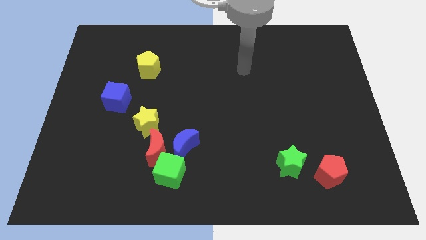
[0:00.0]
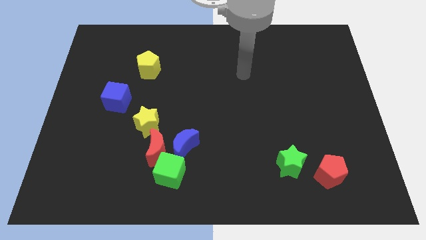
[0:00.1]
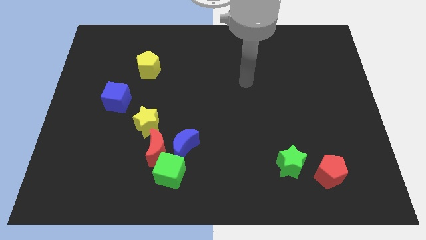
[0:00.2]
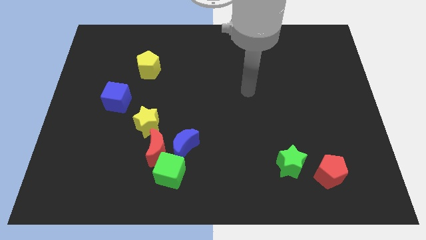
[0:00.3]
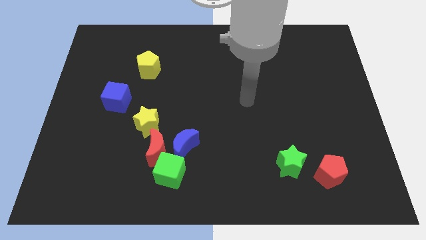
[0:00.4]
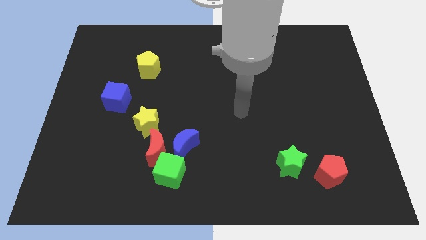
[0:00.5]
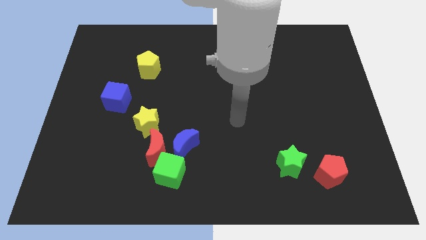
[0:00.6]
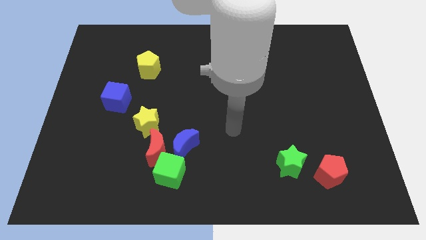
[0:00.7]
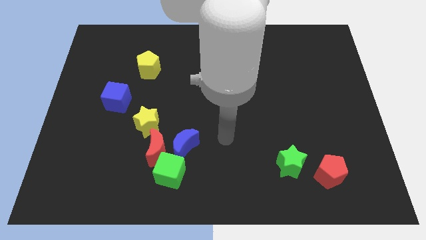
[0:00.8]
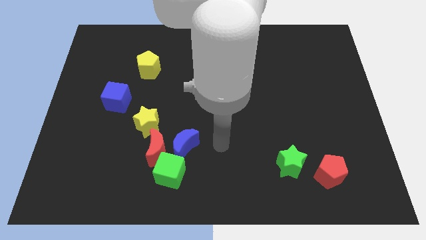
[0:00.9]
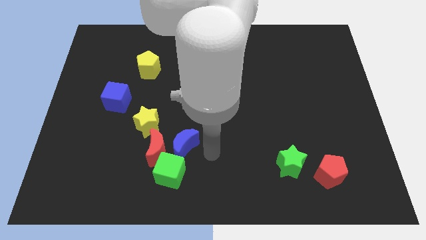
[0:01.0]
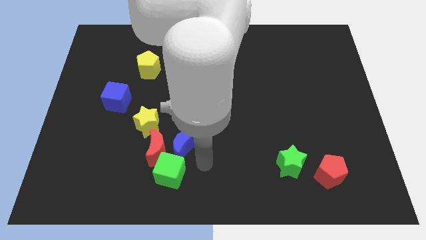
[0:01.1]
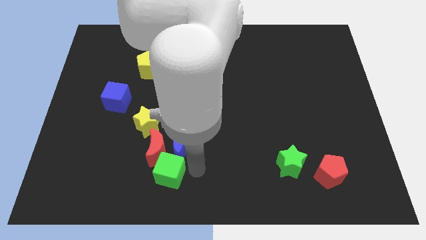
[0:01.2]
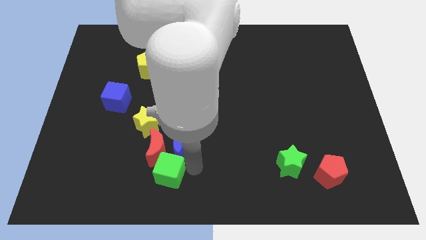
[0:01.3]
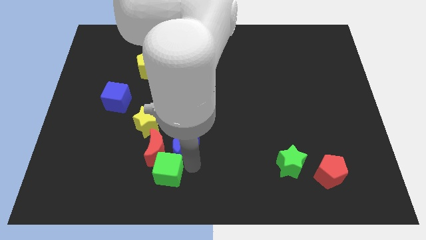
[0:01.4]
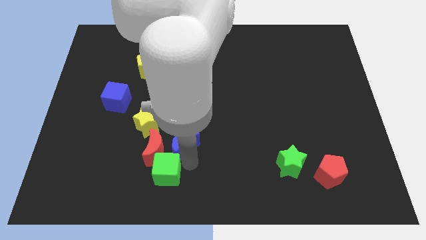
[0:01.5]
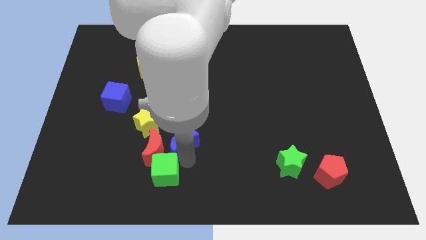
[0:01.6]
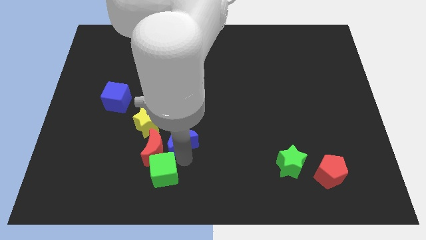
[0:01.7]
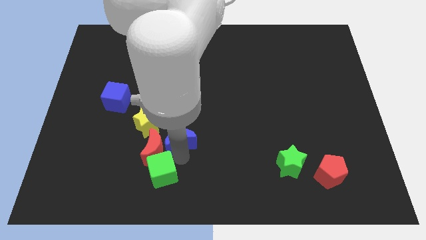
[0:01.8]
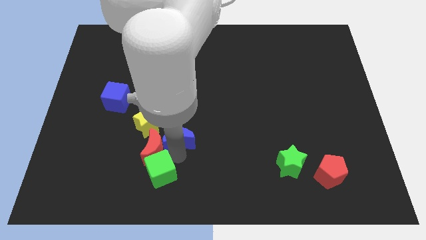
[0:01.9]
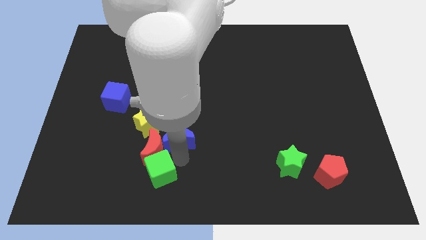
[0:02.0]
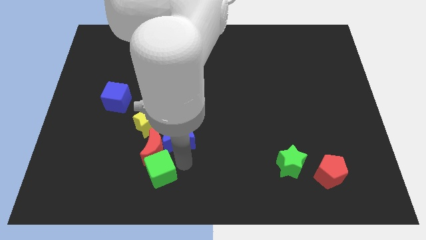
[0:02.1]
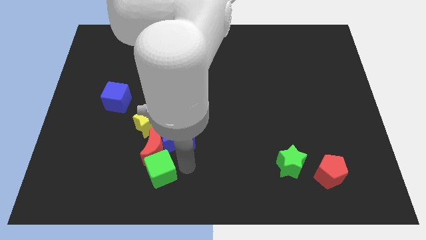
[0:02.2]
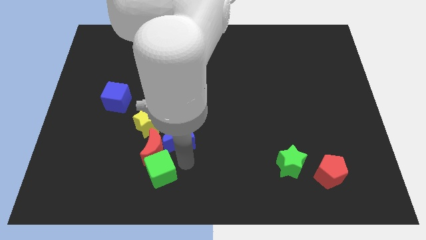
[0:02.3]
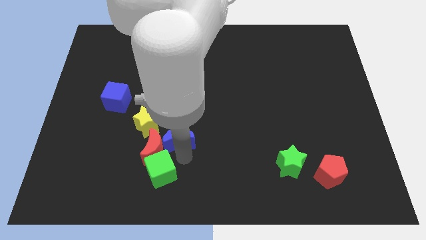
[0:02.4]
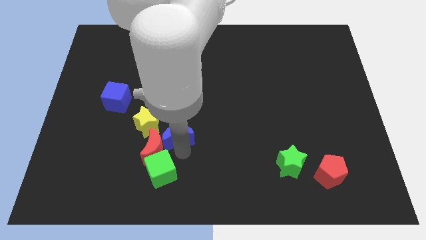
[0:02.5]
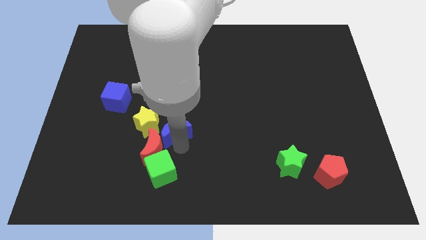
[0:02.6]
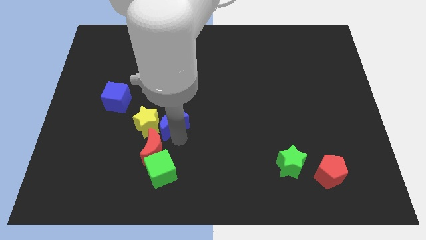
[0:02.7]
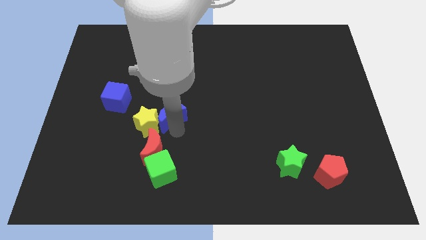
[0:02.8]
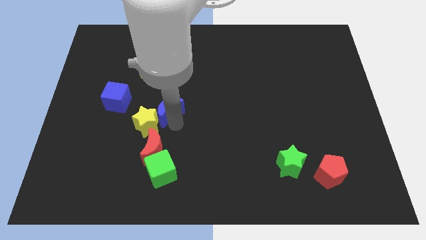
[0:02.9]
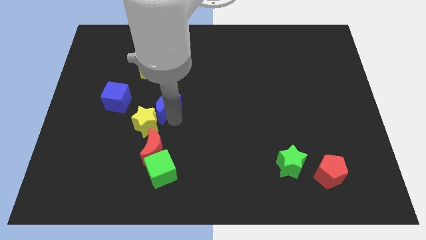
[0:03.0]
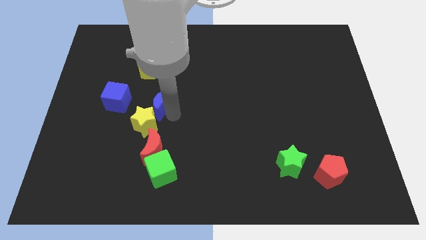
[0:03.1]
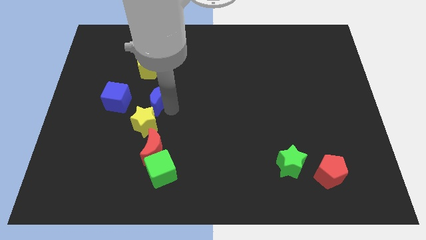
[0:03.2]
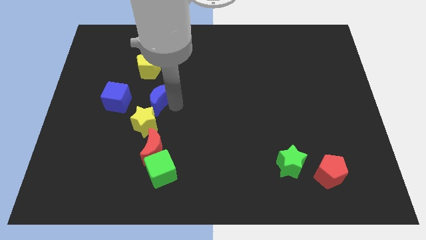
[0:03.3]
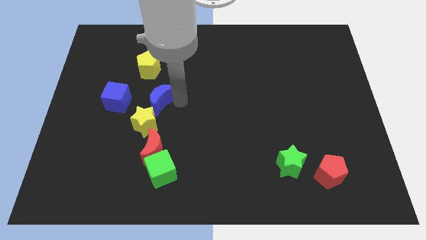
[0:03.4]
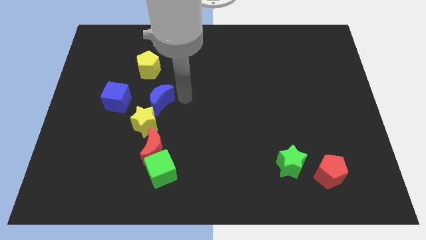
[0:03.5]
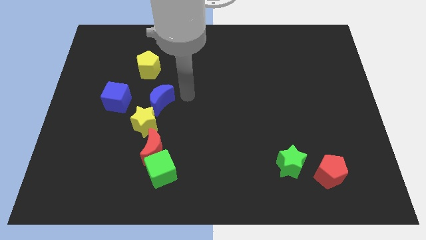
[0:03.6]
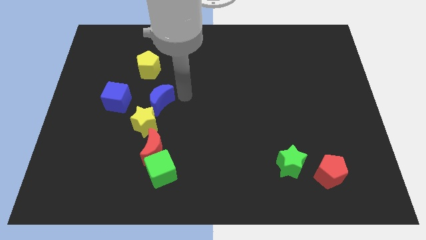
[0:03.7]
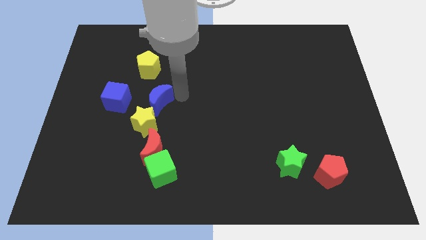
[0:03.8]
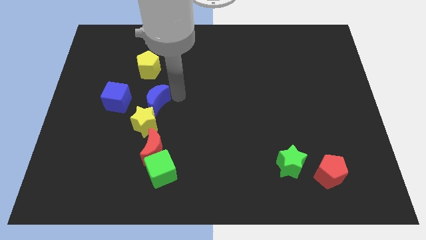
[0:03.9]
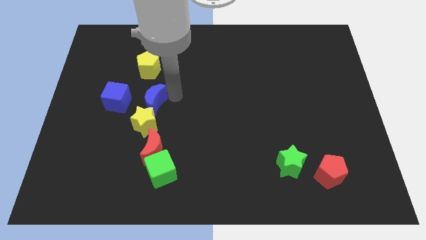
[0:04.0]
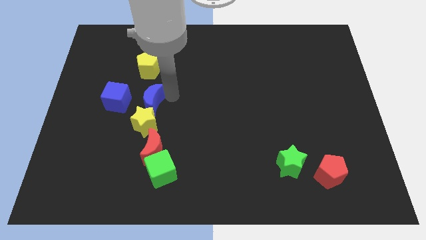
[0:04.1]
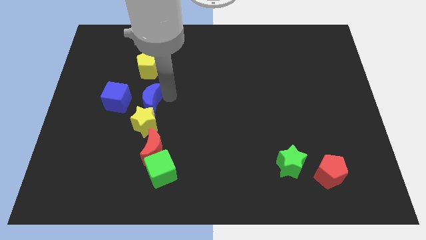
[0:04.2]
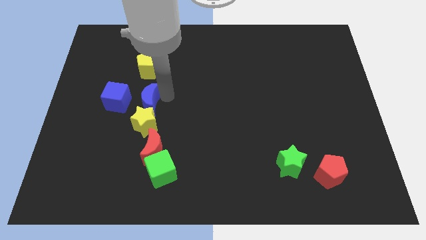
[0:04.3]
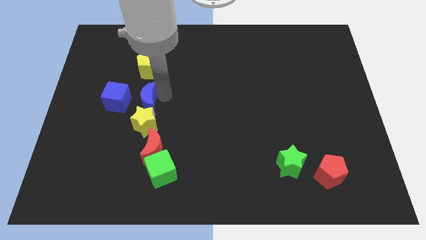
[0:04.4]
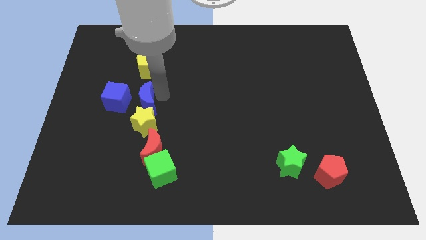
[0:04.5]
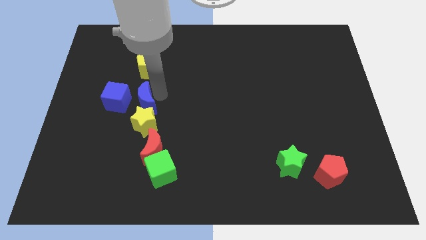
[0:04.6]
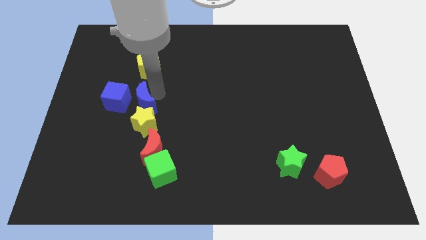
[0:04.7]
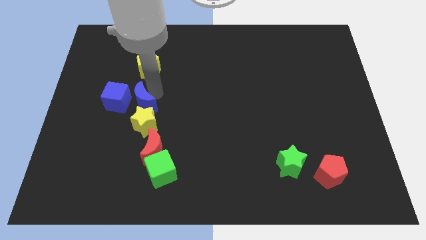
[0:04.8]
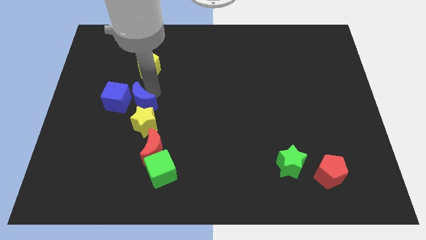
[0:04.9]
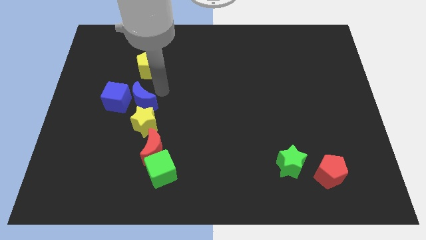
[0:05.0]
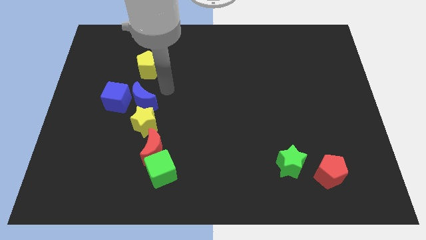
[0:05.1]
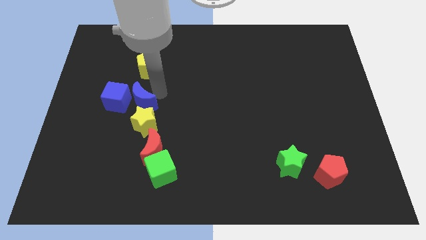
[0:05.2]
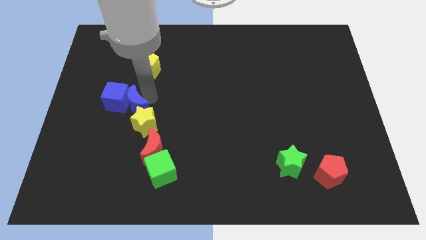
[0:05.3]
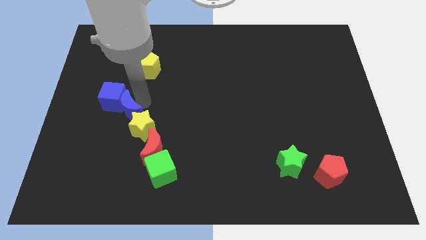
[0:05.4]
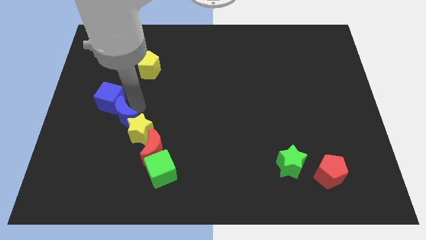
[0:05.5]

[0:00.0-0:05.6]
put the blue moon to the left side of the yellow star

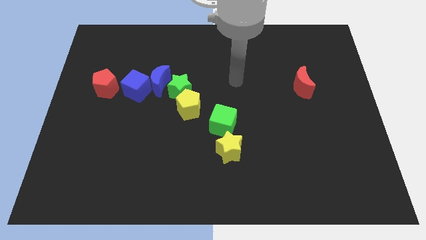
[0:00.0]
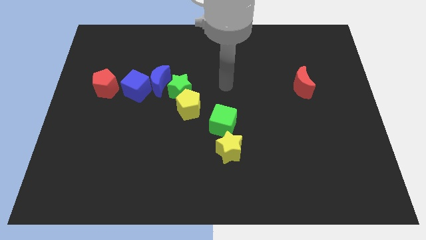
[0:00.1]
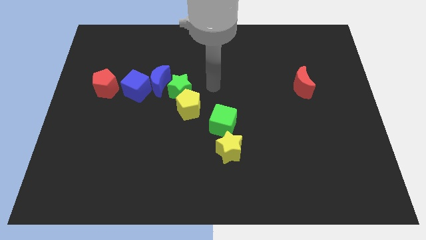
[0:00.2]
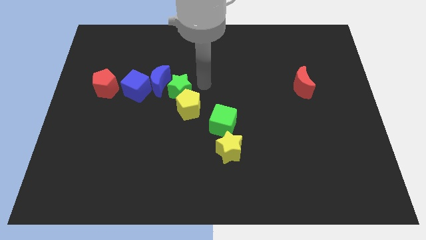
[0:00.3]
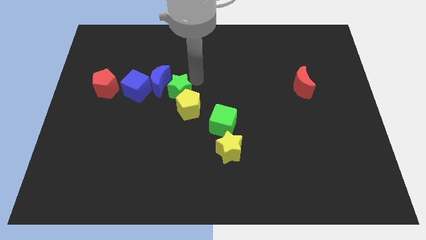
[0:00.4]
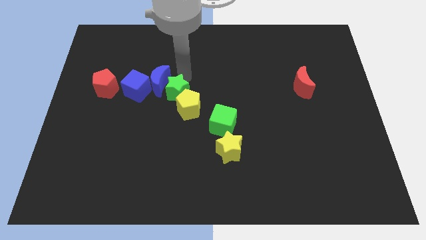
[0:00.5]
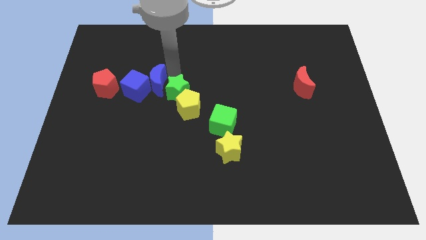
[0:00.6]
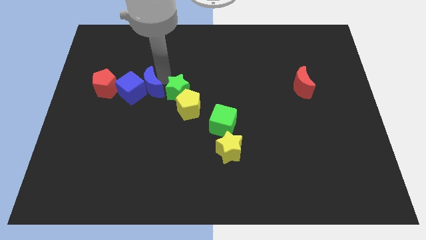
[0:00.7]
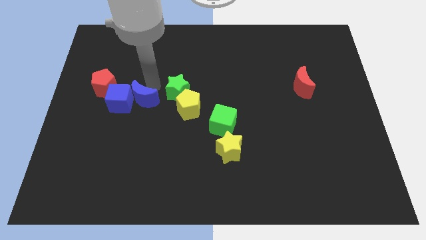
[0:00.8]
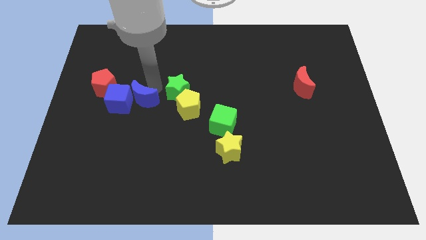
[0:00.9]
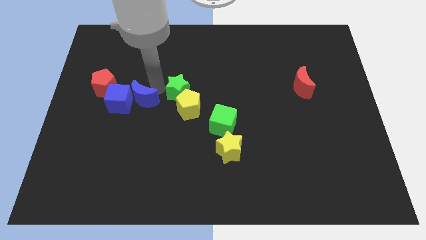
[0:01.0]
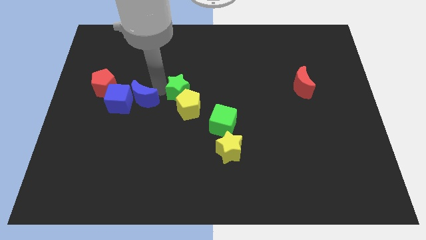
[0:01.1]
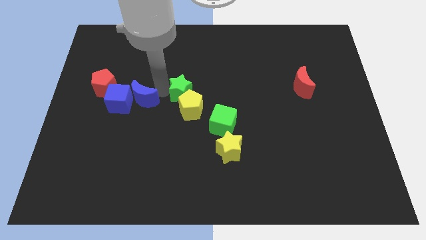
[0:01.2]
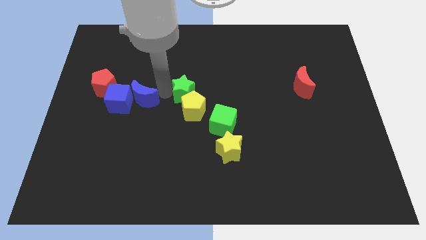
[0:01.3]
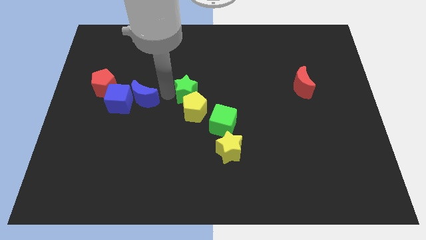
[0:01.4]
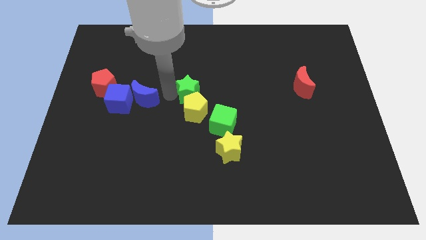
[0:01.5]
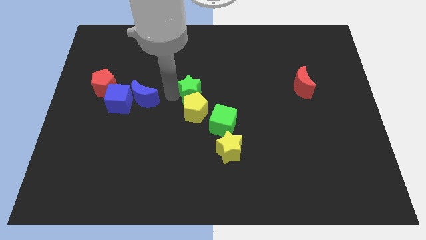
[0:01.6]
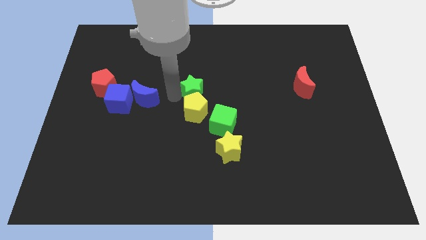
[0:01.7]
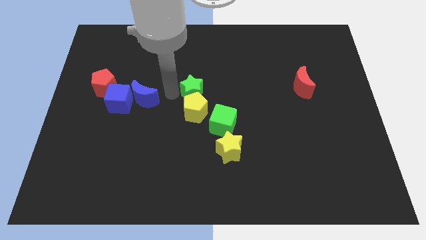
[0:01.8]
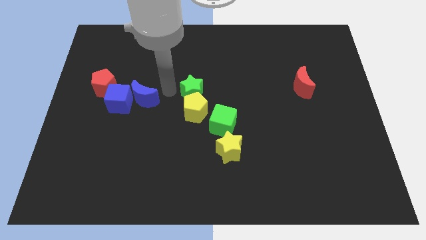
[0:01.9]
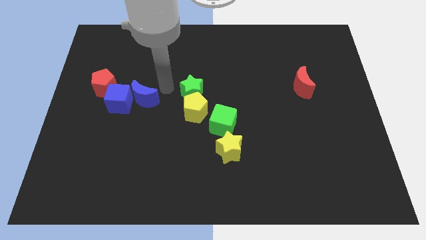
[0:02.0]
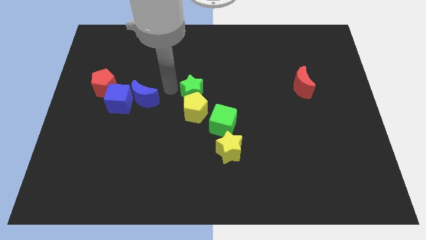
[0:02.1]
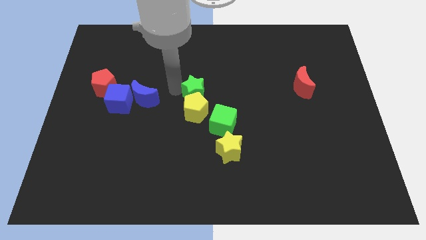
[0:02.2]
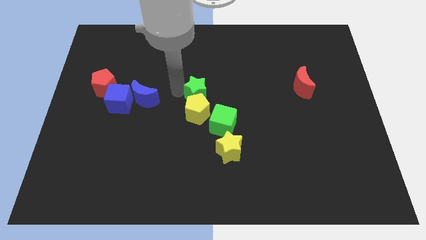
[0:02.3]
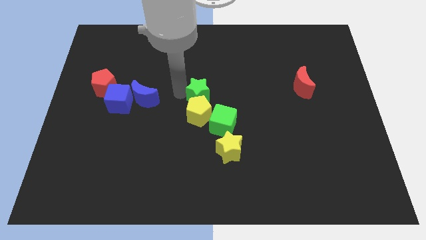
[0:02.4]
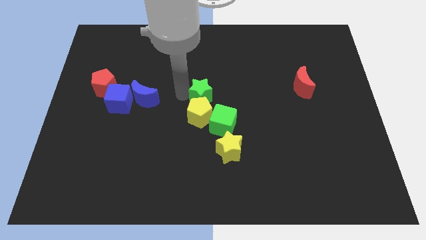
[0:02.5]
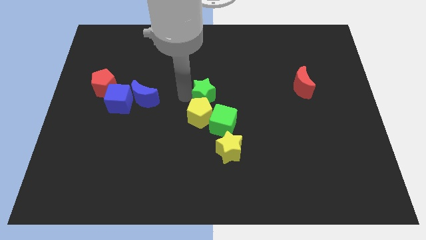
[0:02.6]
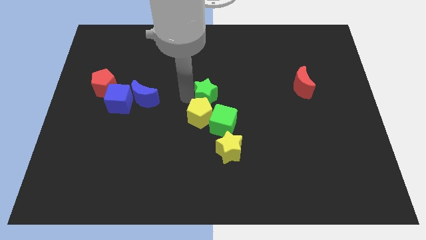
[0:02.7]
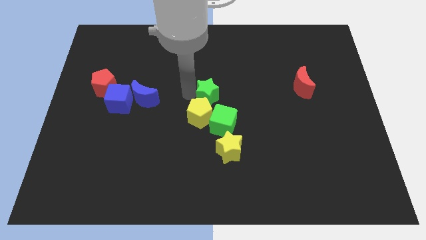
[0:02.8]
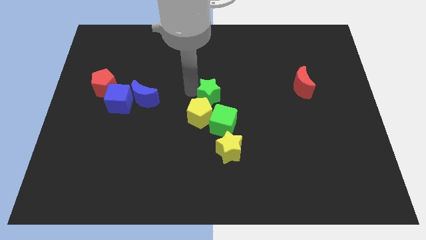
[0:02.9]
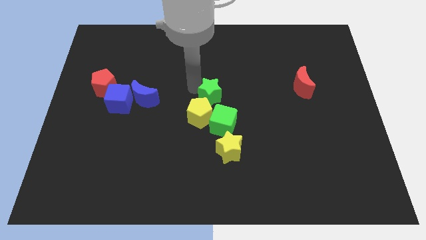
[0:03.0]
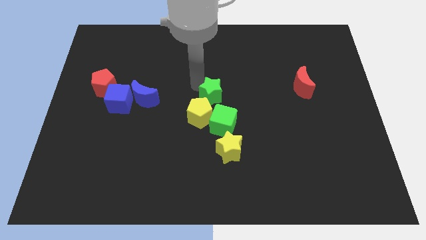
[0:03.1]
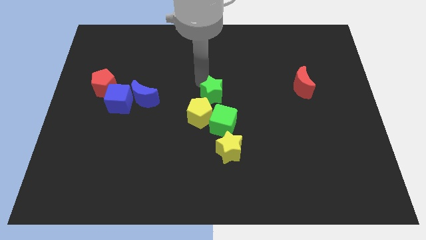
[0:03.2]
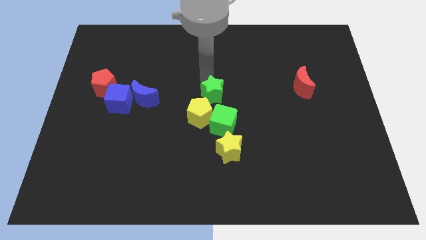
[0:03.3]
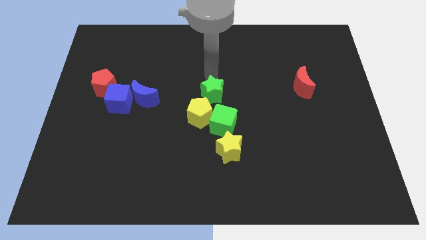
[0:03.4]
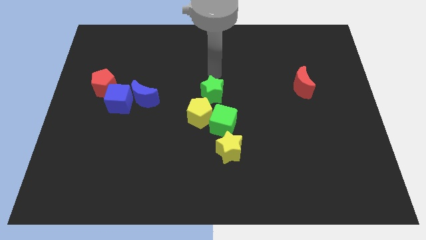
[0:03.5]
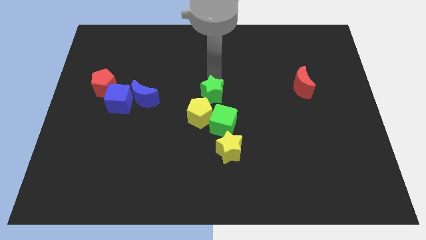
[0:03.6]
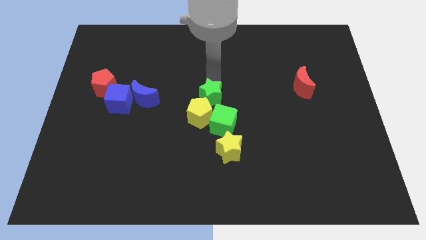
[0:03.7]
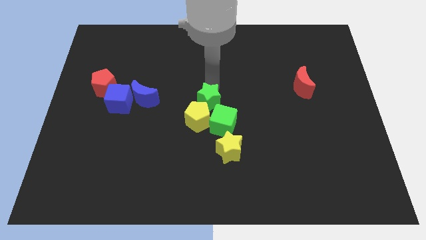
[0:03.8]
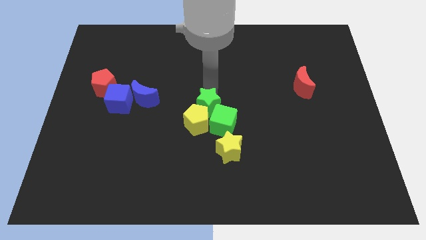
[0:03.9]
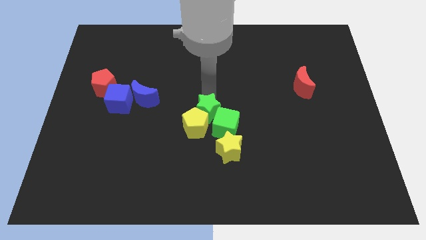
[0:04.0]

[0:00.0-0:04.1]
push the green star diagonally up and to the left of the yellow star
